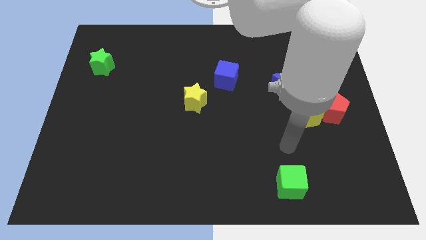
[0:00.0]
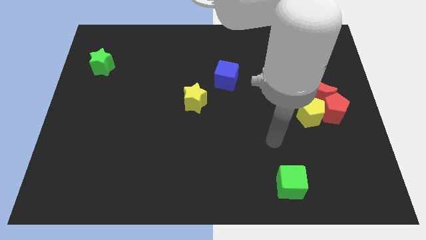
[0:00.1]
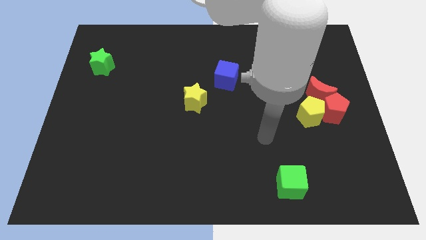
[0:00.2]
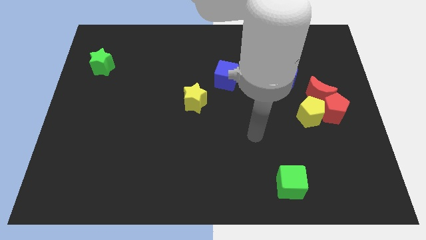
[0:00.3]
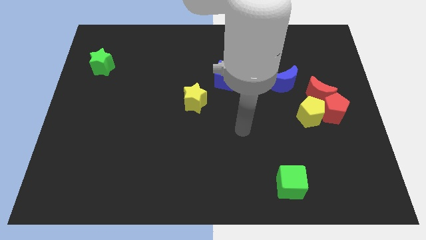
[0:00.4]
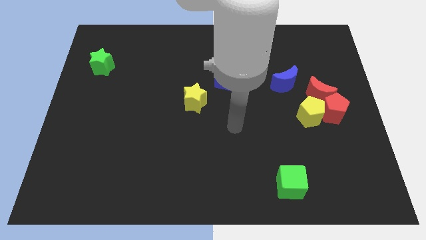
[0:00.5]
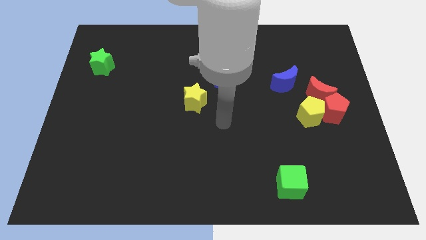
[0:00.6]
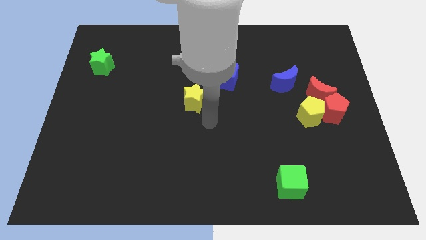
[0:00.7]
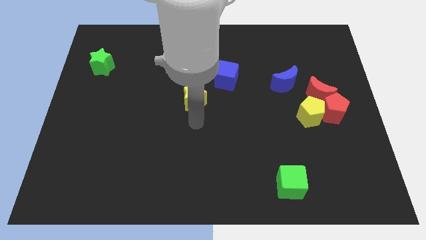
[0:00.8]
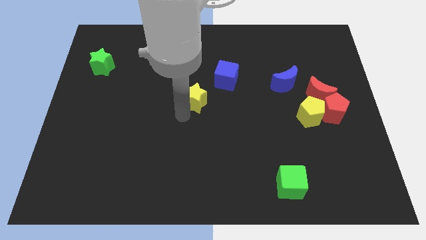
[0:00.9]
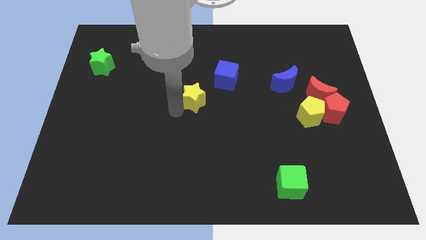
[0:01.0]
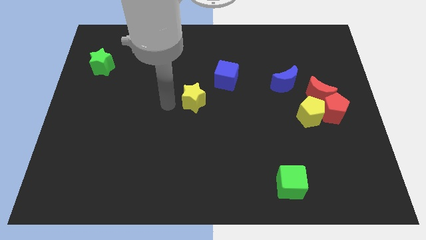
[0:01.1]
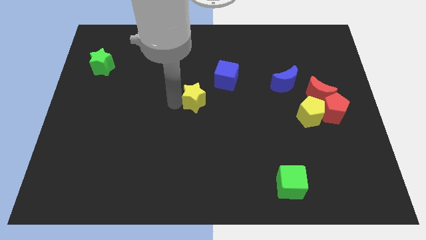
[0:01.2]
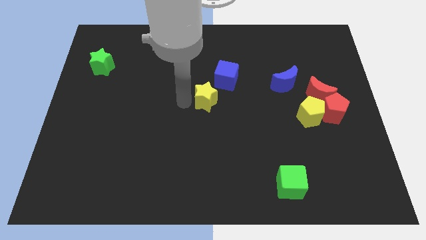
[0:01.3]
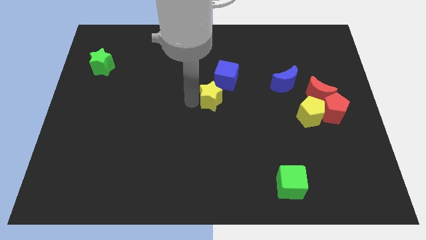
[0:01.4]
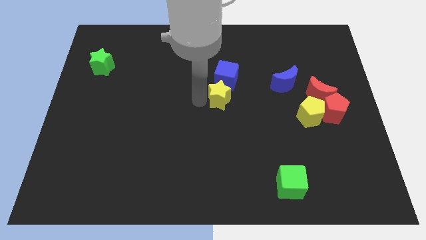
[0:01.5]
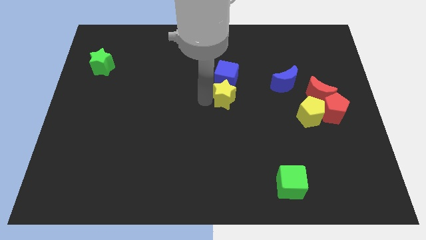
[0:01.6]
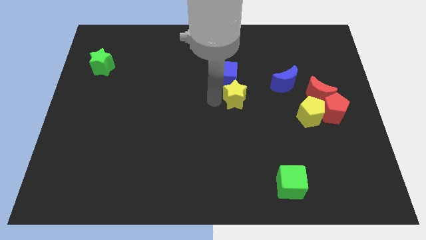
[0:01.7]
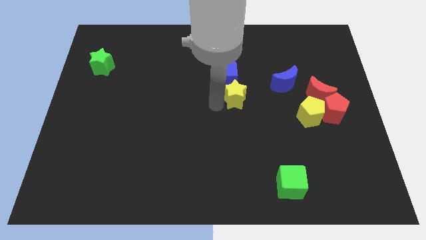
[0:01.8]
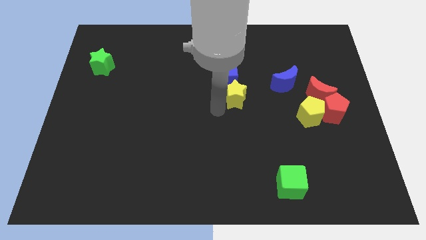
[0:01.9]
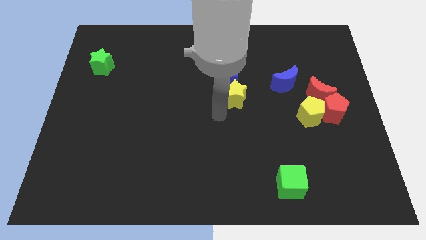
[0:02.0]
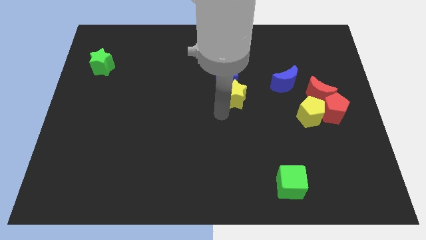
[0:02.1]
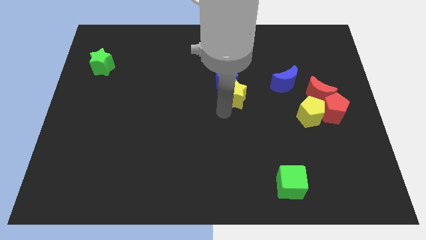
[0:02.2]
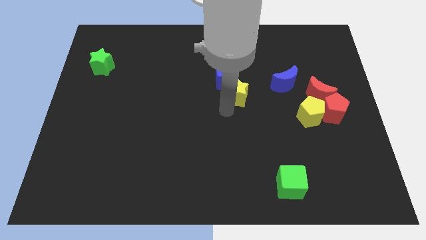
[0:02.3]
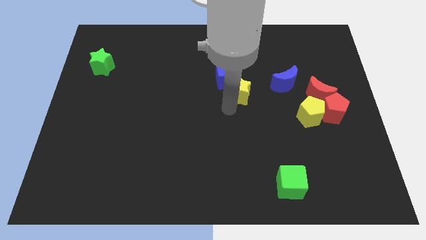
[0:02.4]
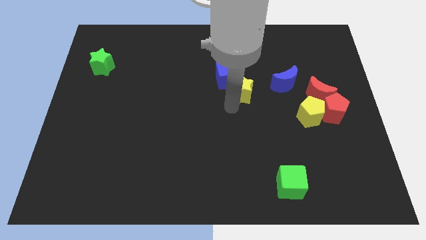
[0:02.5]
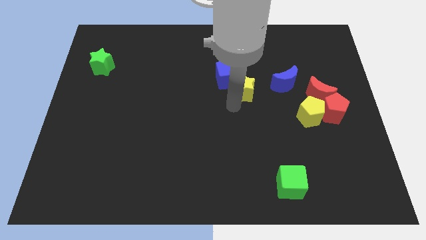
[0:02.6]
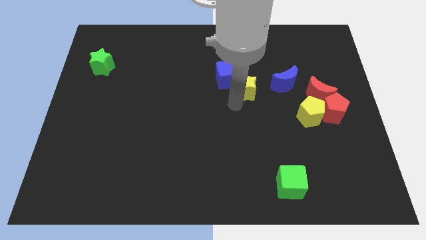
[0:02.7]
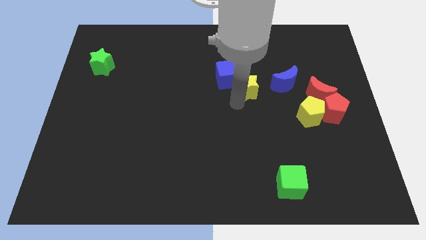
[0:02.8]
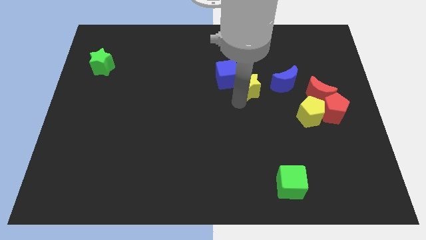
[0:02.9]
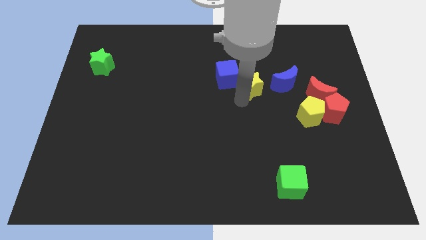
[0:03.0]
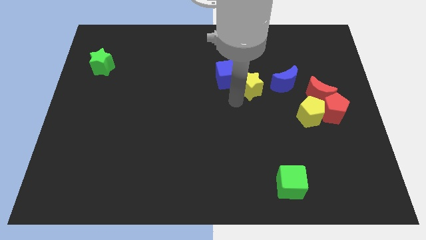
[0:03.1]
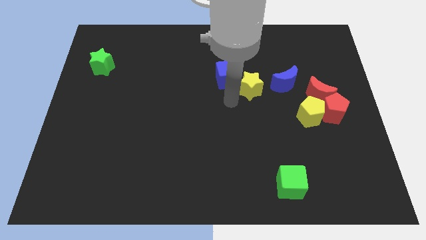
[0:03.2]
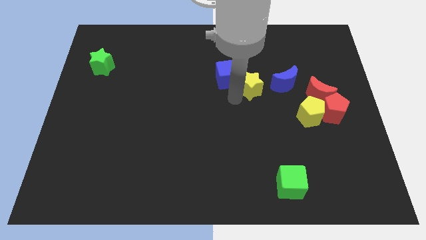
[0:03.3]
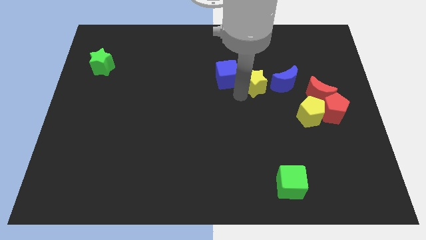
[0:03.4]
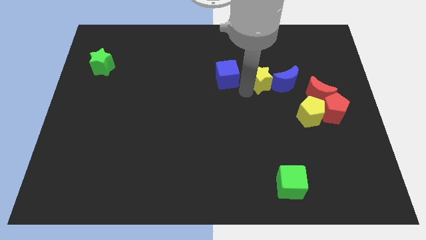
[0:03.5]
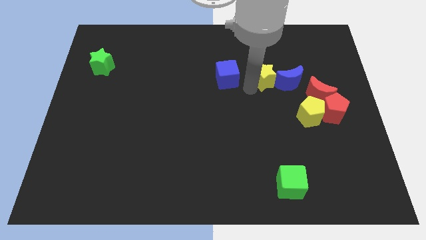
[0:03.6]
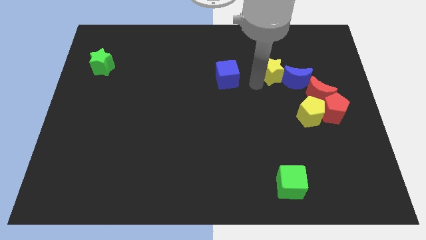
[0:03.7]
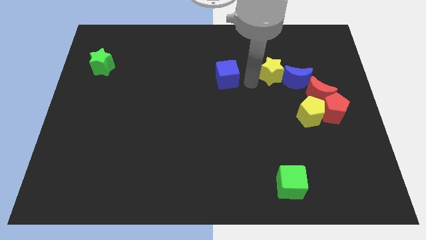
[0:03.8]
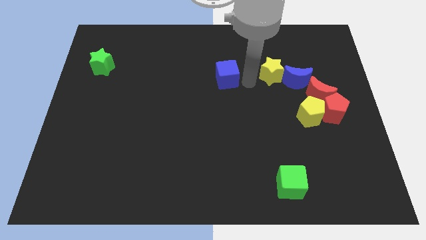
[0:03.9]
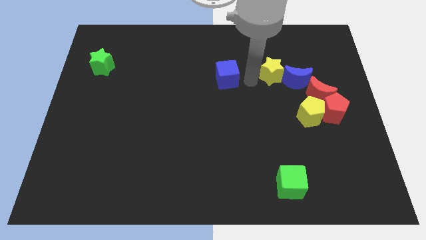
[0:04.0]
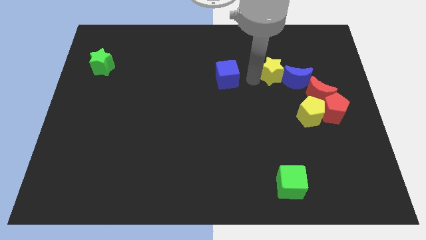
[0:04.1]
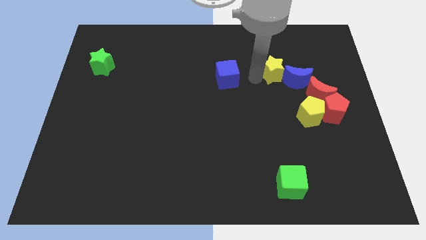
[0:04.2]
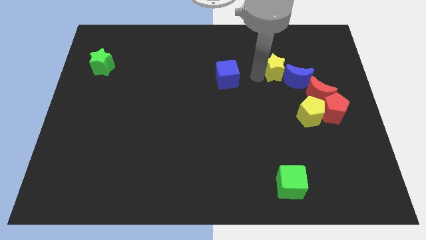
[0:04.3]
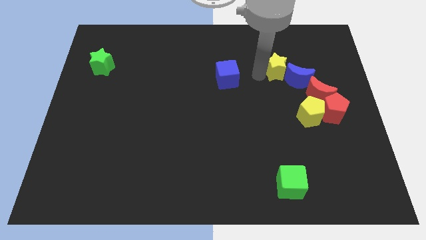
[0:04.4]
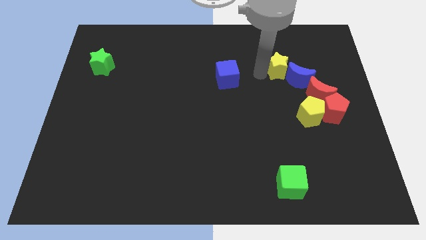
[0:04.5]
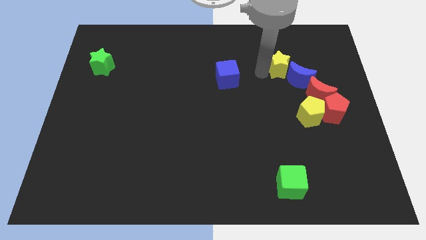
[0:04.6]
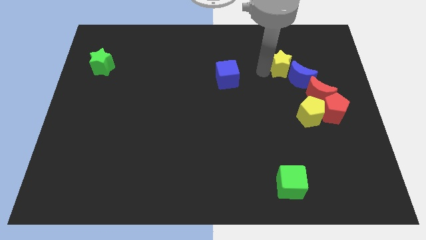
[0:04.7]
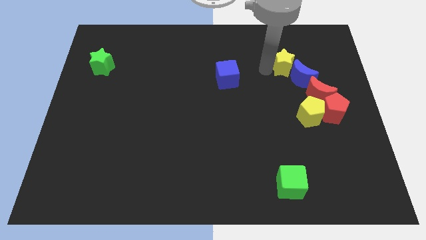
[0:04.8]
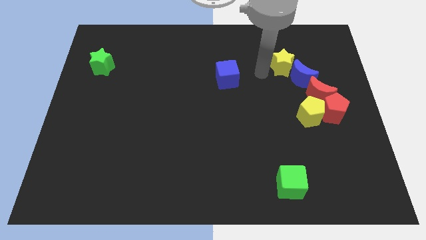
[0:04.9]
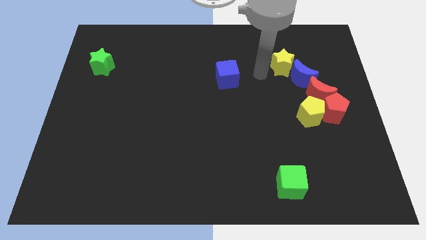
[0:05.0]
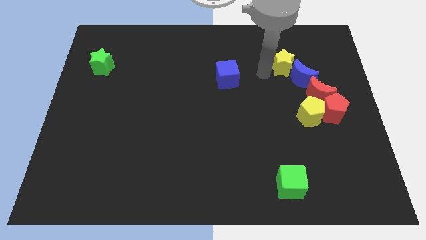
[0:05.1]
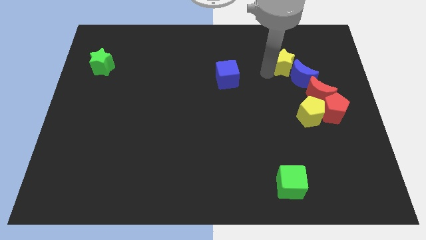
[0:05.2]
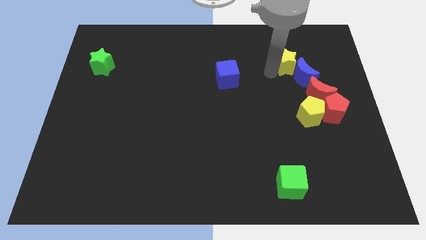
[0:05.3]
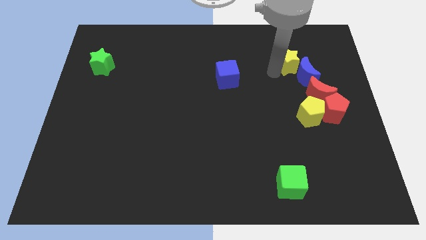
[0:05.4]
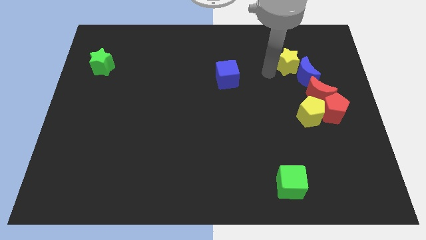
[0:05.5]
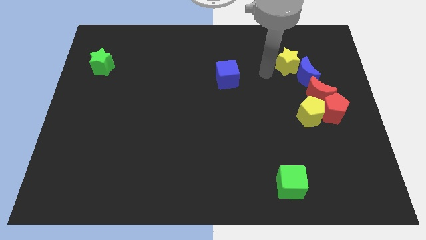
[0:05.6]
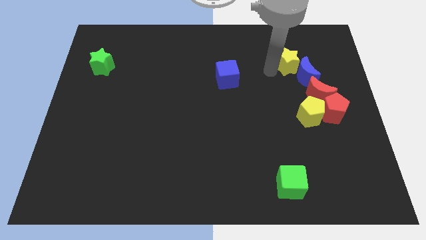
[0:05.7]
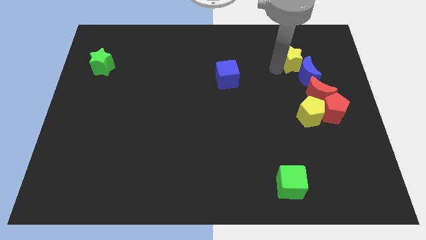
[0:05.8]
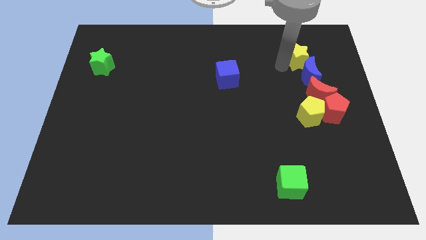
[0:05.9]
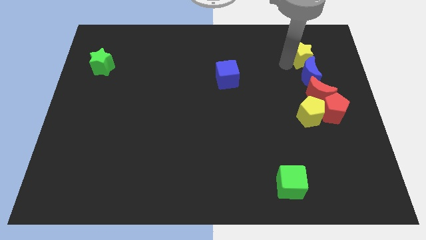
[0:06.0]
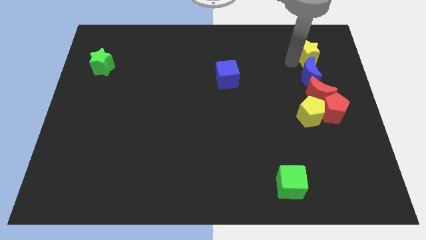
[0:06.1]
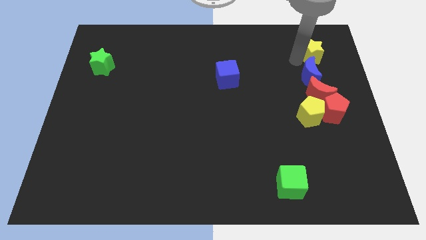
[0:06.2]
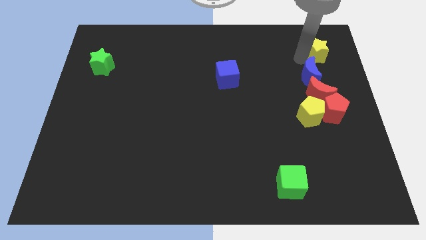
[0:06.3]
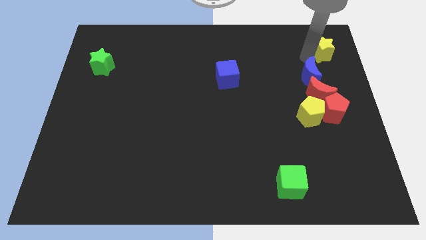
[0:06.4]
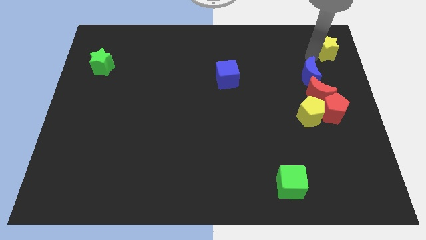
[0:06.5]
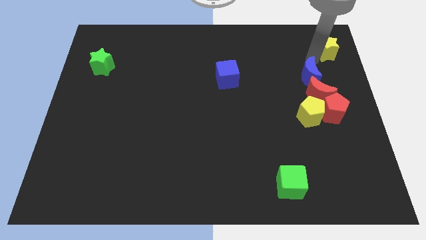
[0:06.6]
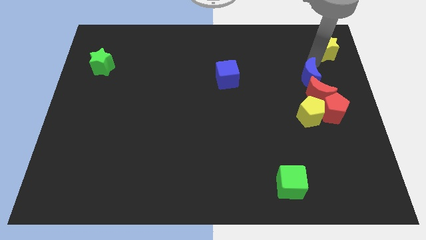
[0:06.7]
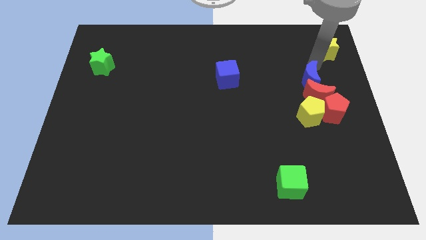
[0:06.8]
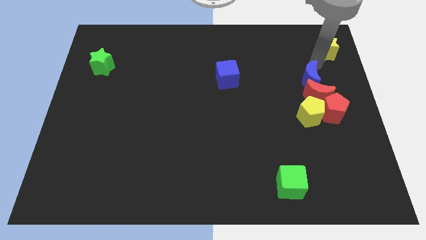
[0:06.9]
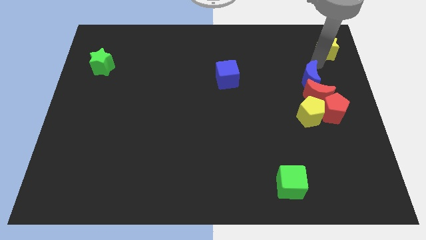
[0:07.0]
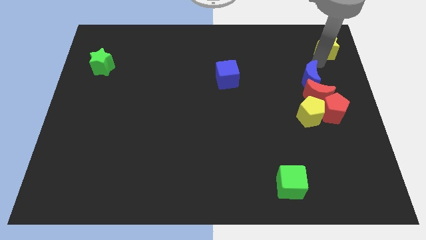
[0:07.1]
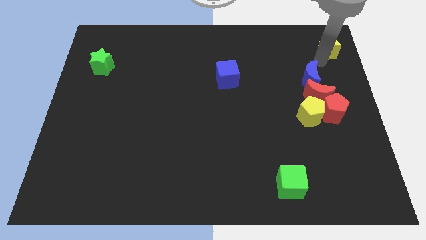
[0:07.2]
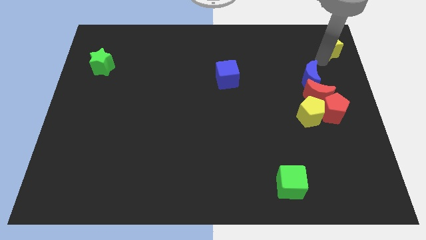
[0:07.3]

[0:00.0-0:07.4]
move the yellow star to the top right of the board

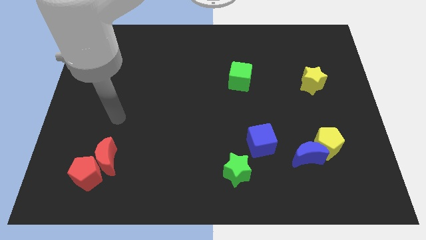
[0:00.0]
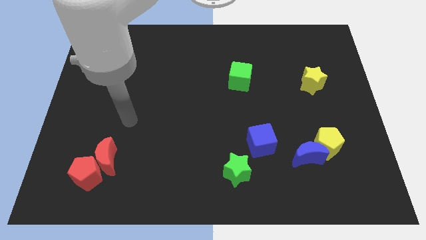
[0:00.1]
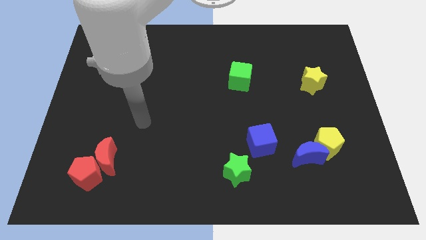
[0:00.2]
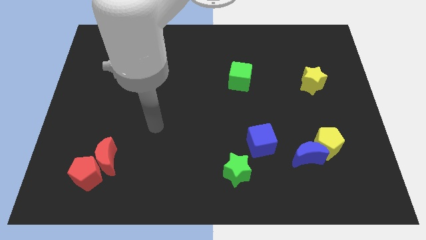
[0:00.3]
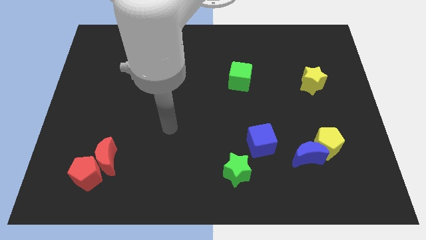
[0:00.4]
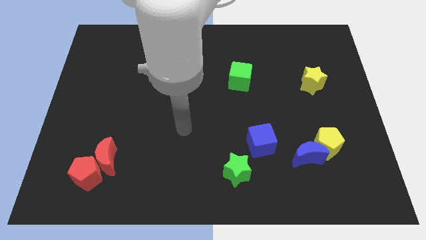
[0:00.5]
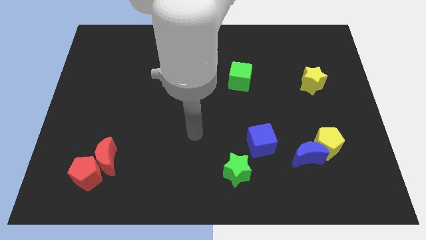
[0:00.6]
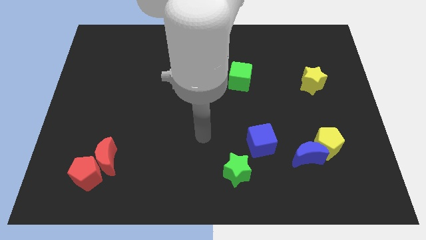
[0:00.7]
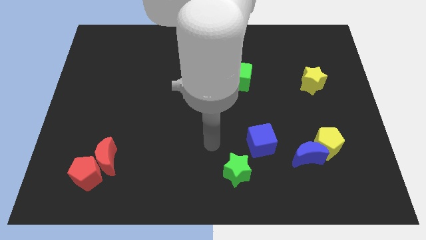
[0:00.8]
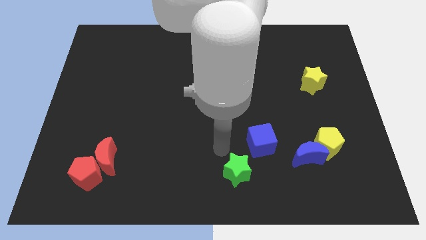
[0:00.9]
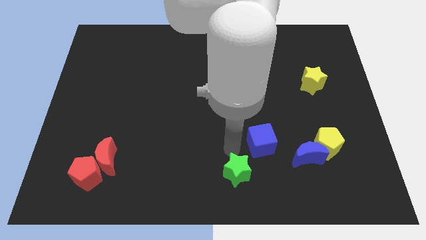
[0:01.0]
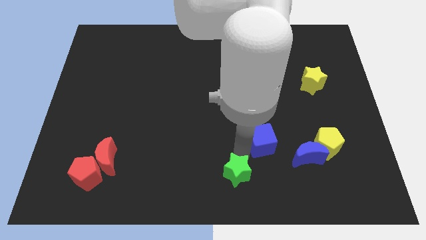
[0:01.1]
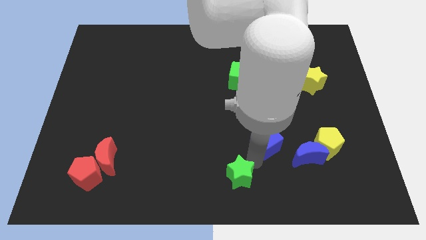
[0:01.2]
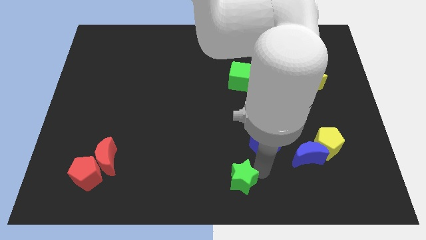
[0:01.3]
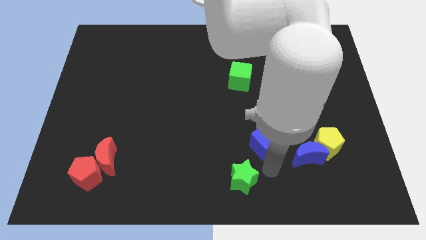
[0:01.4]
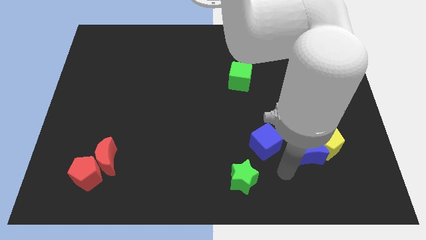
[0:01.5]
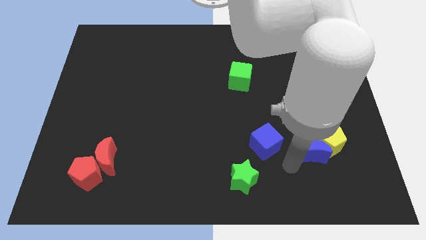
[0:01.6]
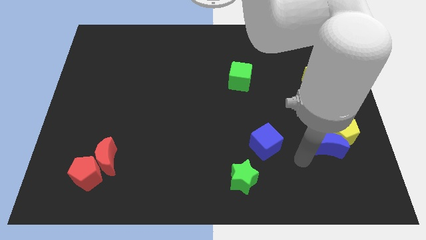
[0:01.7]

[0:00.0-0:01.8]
put the yellow pentagon to the right side
